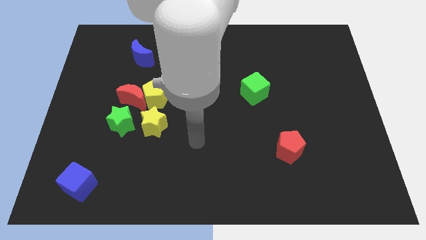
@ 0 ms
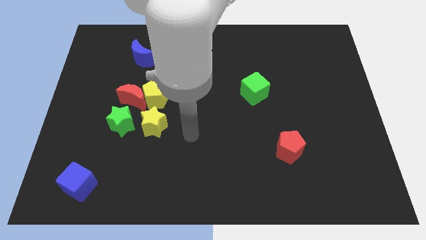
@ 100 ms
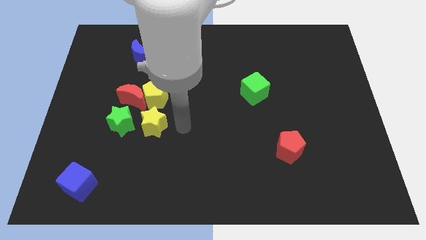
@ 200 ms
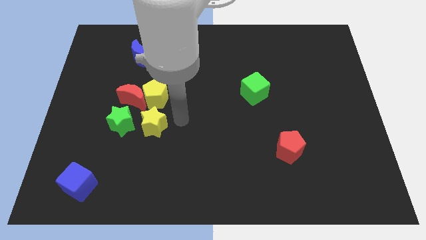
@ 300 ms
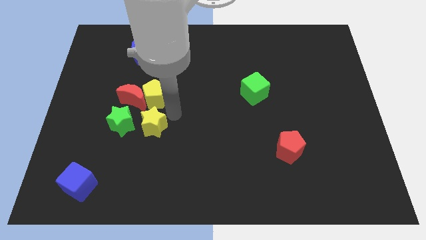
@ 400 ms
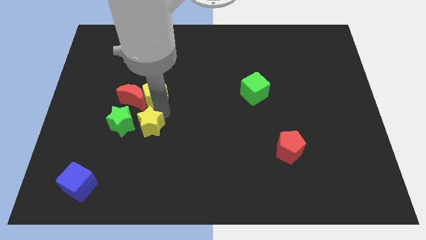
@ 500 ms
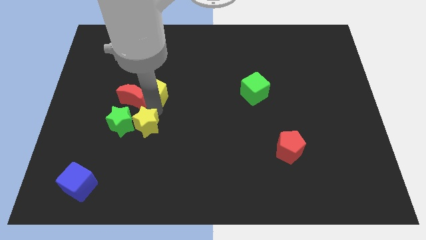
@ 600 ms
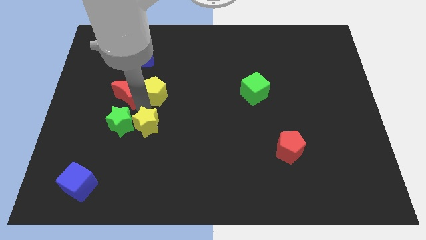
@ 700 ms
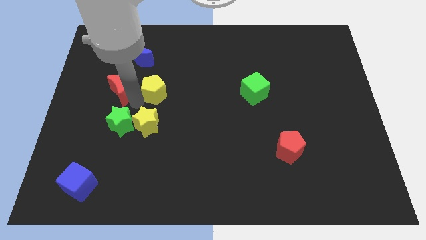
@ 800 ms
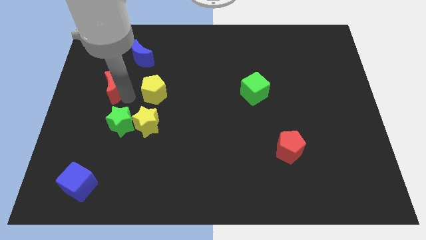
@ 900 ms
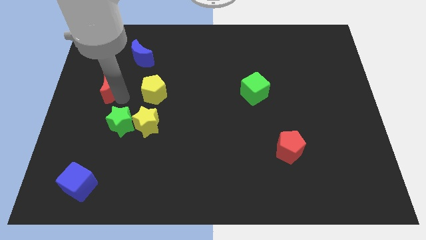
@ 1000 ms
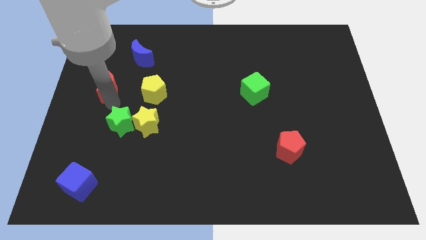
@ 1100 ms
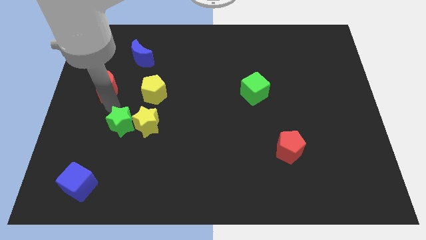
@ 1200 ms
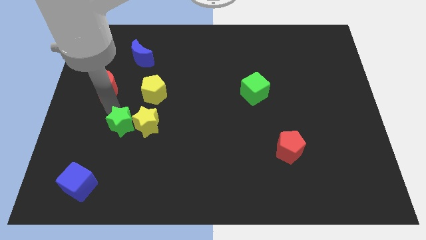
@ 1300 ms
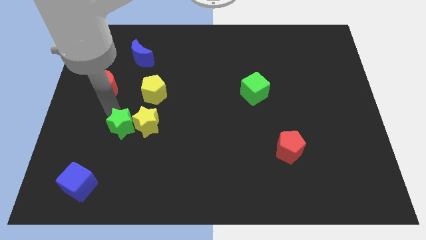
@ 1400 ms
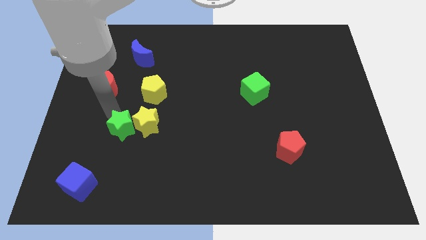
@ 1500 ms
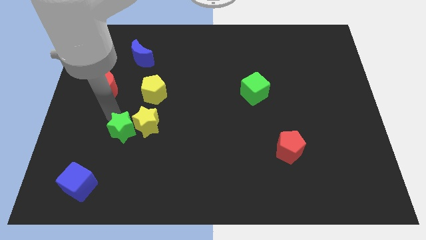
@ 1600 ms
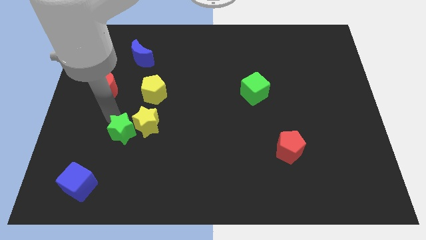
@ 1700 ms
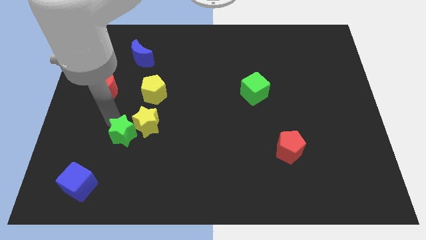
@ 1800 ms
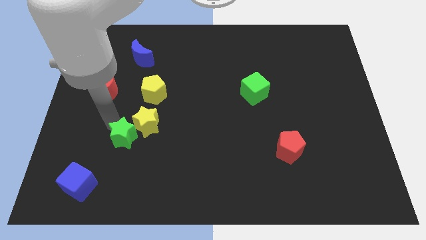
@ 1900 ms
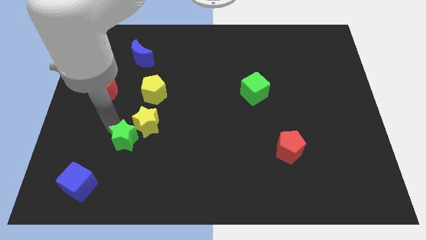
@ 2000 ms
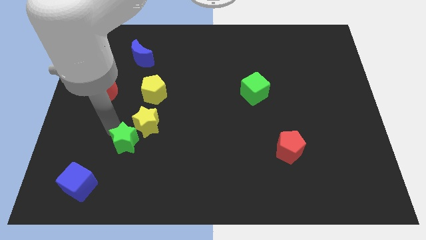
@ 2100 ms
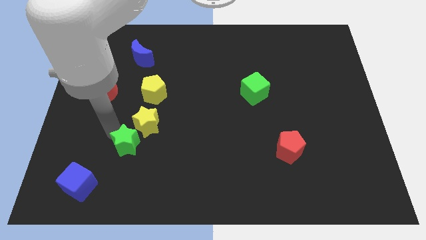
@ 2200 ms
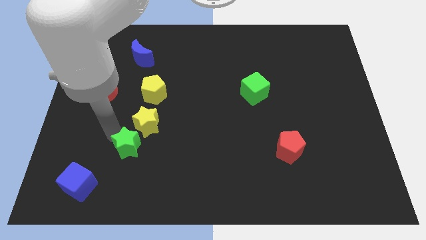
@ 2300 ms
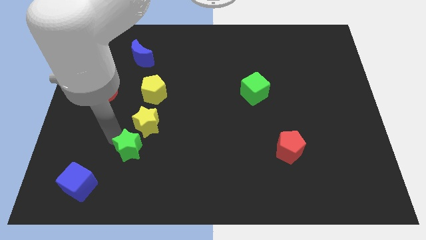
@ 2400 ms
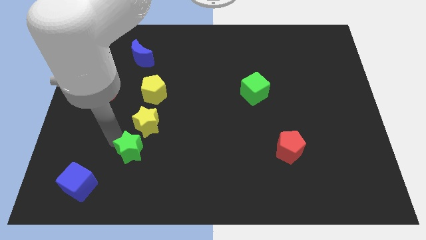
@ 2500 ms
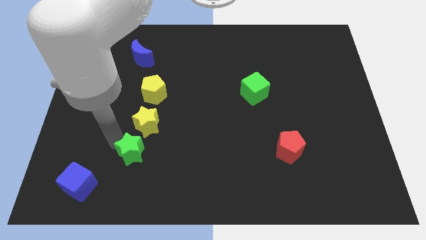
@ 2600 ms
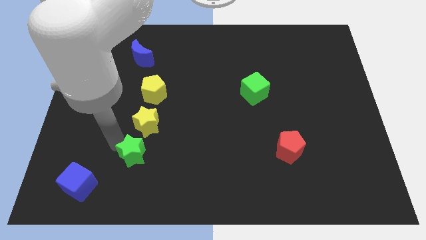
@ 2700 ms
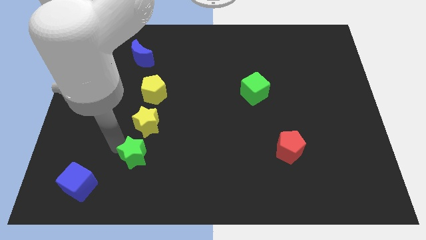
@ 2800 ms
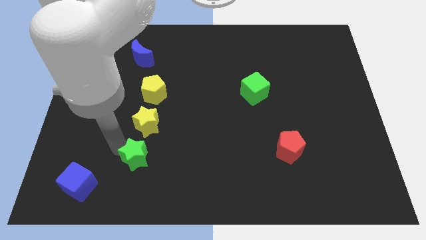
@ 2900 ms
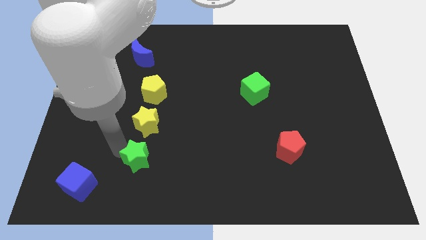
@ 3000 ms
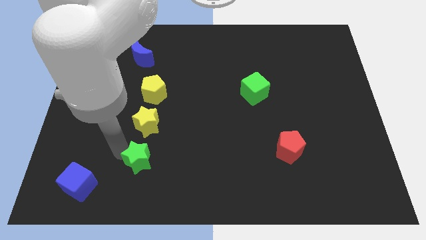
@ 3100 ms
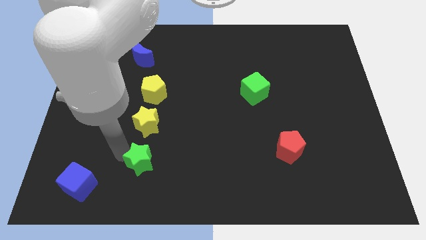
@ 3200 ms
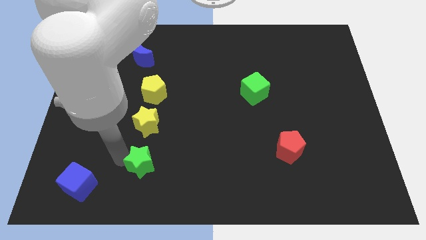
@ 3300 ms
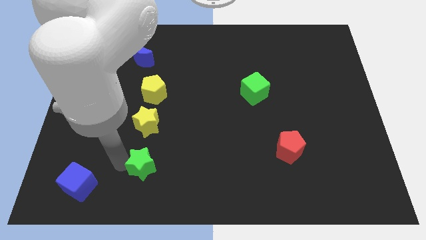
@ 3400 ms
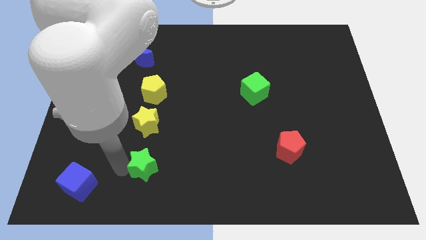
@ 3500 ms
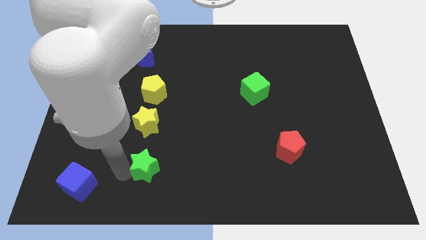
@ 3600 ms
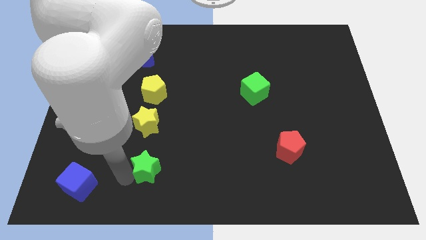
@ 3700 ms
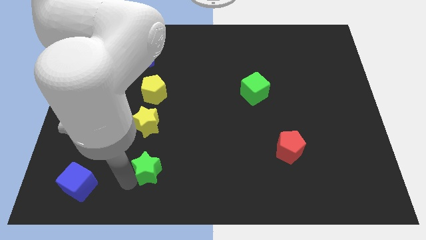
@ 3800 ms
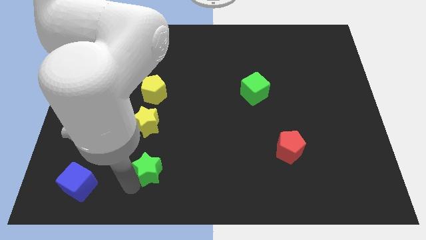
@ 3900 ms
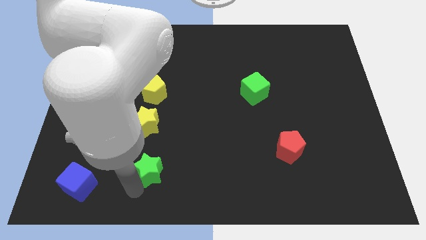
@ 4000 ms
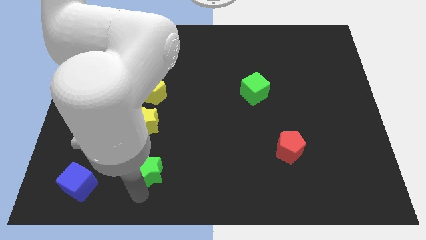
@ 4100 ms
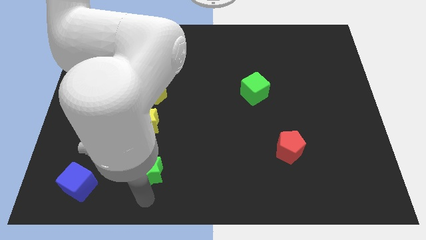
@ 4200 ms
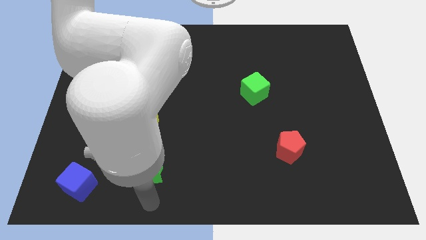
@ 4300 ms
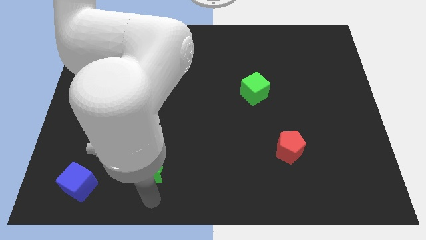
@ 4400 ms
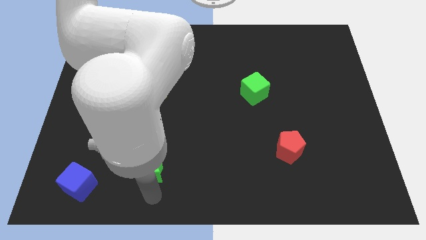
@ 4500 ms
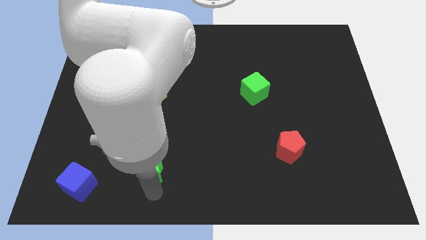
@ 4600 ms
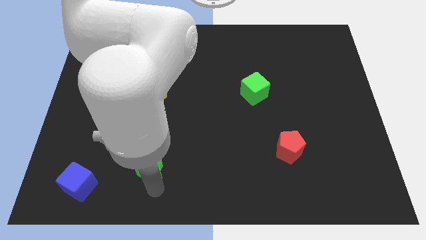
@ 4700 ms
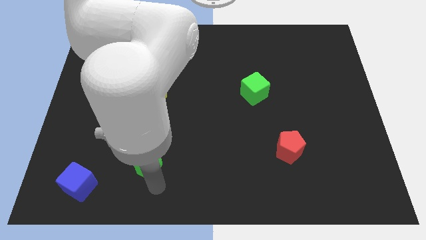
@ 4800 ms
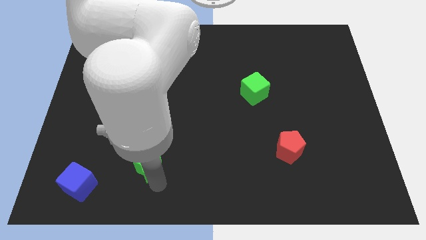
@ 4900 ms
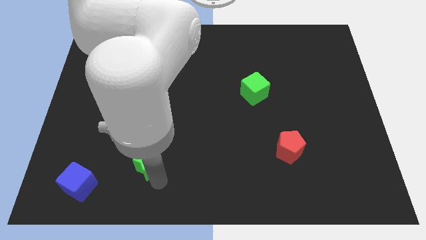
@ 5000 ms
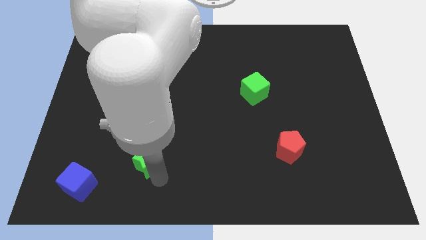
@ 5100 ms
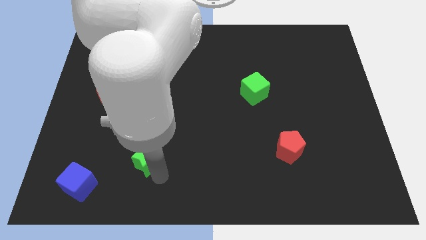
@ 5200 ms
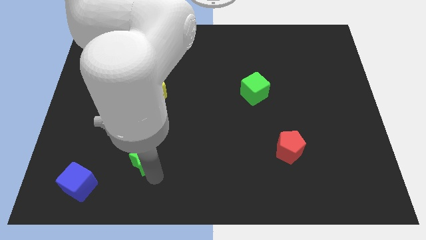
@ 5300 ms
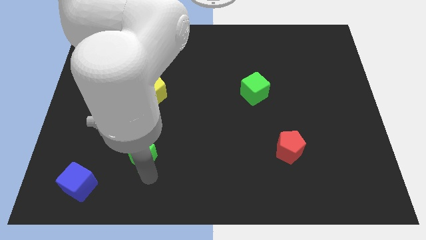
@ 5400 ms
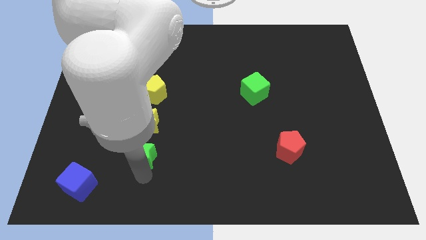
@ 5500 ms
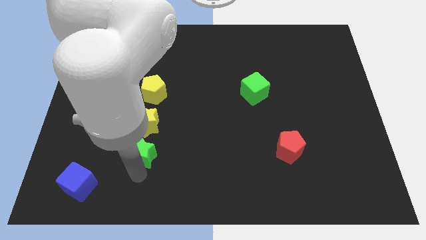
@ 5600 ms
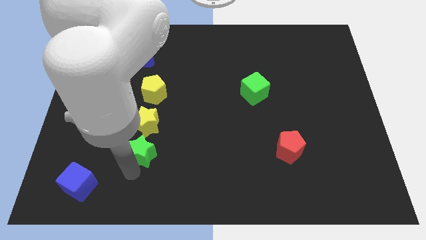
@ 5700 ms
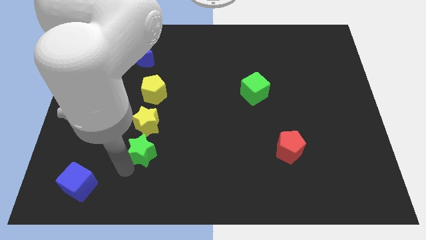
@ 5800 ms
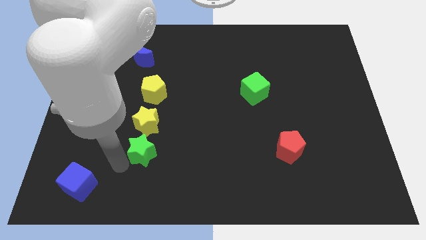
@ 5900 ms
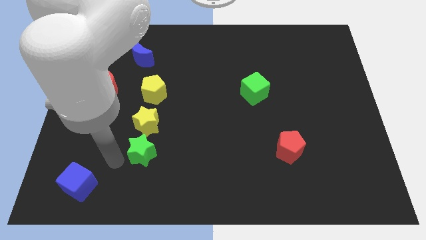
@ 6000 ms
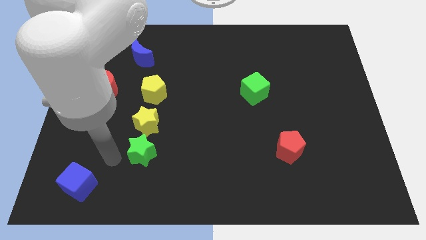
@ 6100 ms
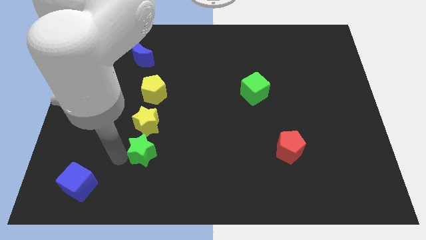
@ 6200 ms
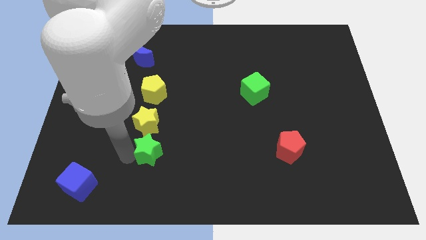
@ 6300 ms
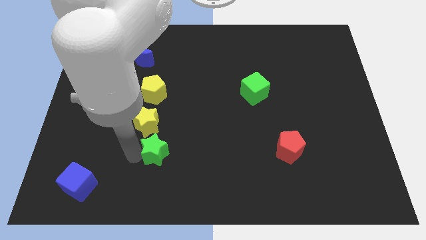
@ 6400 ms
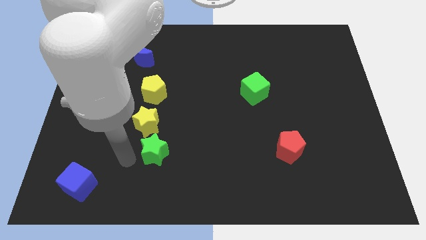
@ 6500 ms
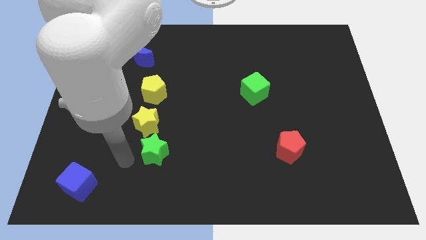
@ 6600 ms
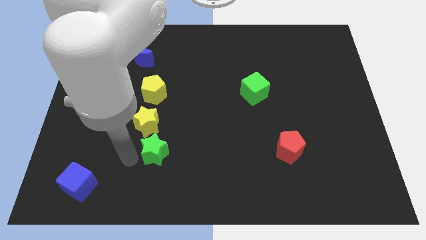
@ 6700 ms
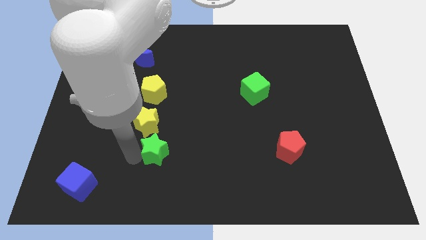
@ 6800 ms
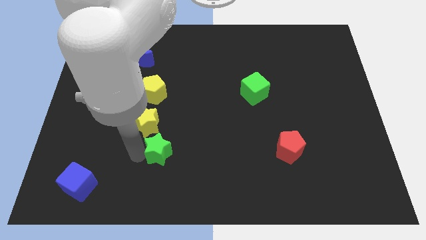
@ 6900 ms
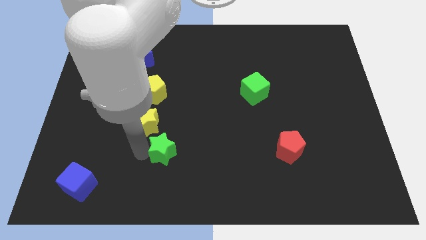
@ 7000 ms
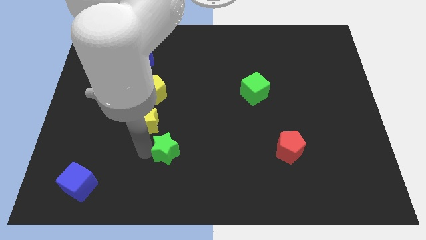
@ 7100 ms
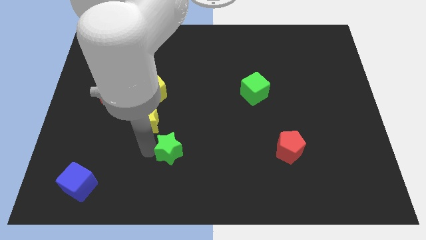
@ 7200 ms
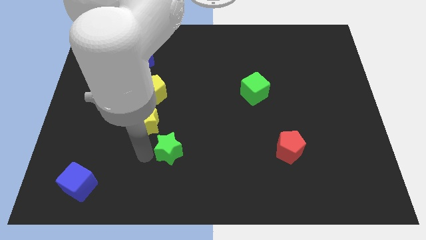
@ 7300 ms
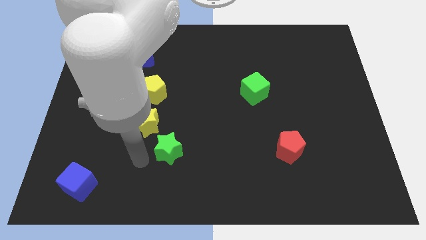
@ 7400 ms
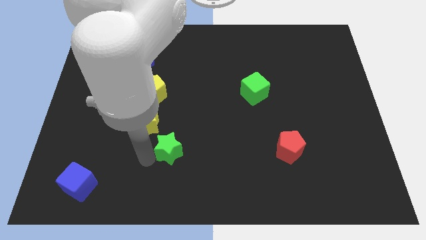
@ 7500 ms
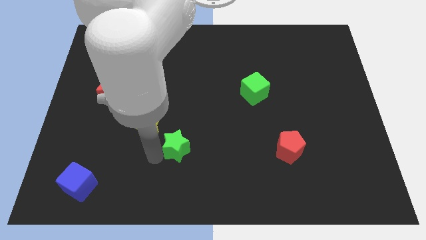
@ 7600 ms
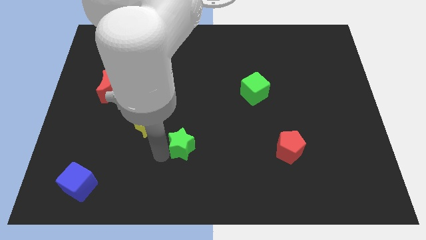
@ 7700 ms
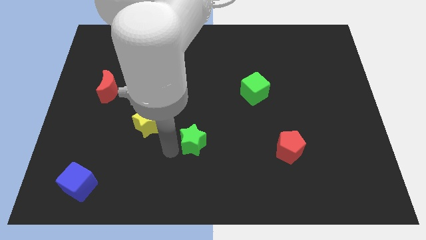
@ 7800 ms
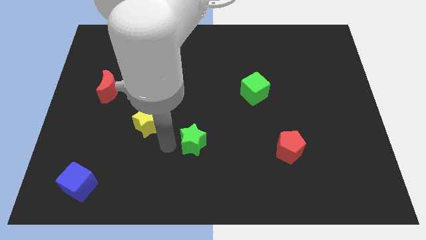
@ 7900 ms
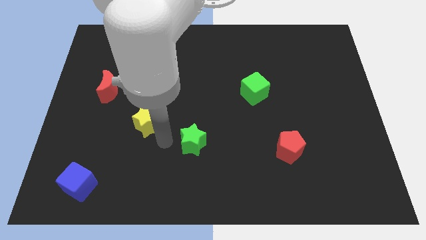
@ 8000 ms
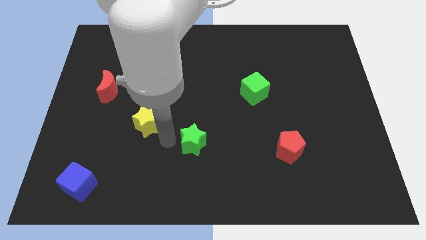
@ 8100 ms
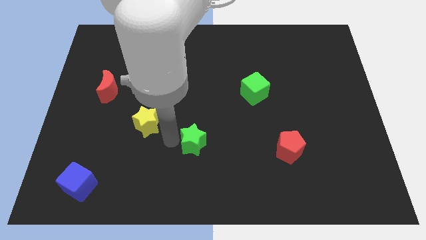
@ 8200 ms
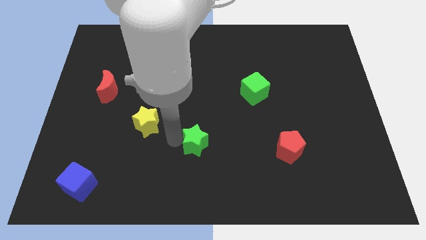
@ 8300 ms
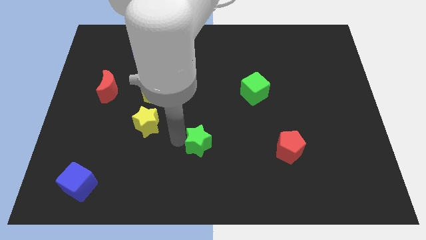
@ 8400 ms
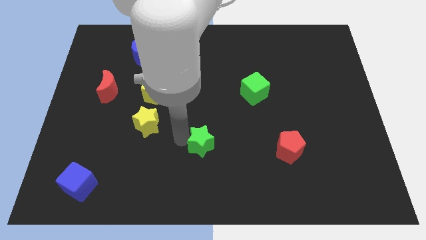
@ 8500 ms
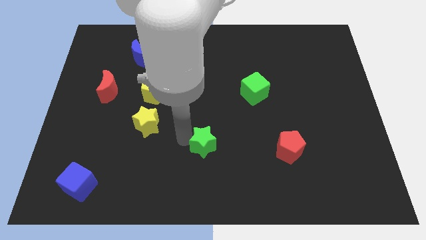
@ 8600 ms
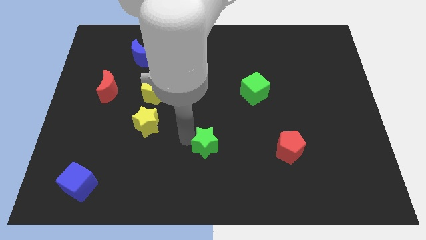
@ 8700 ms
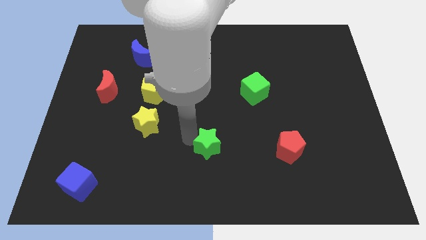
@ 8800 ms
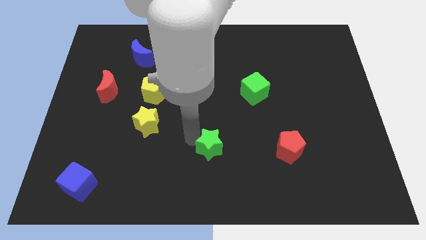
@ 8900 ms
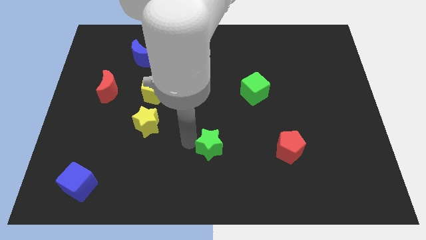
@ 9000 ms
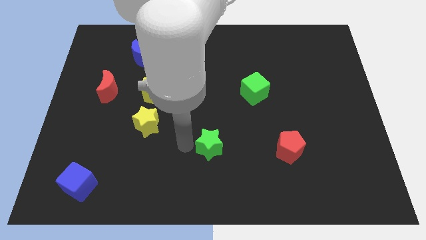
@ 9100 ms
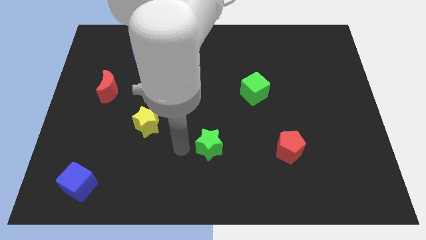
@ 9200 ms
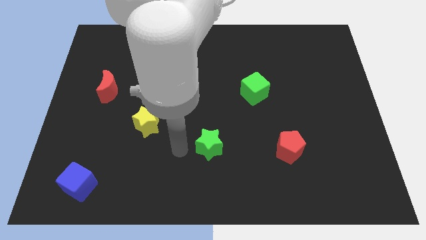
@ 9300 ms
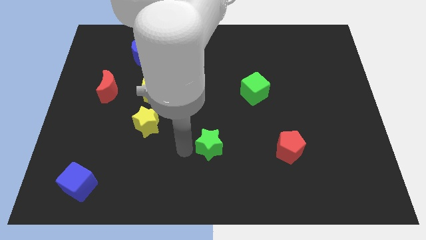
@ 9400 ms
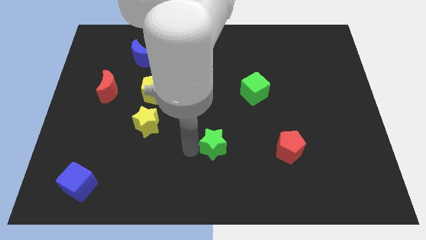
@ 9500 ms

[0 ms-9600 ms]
move the green star to the left side of the red pentagon
